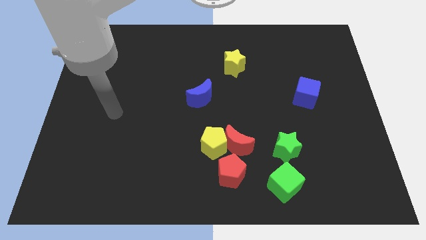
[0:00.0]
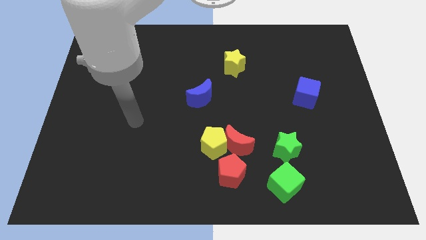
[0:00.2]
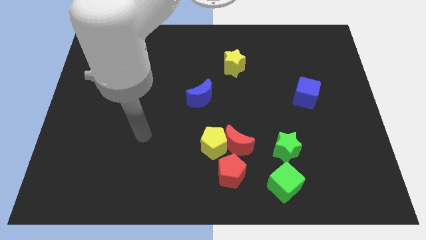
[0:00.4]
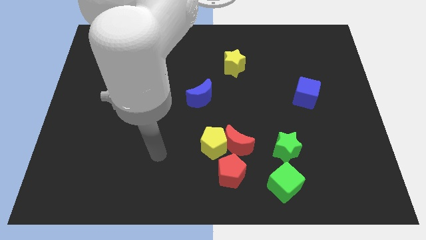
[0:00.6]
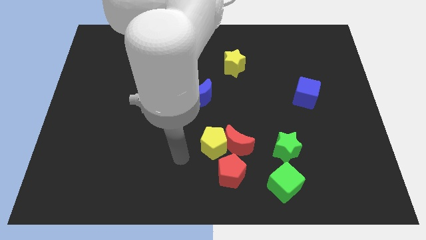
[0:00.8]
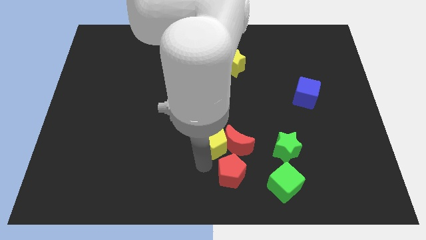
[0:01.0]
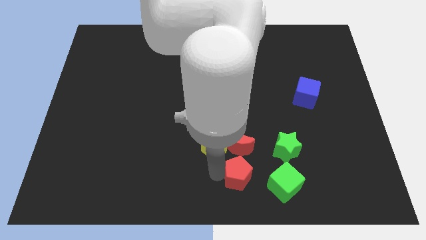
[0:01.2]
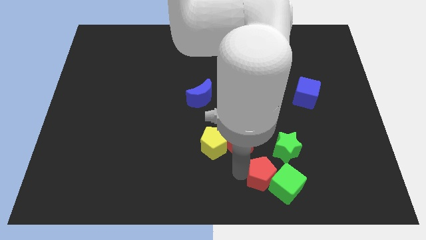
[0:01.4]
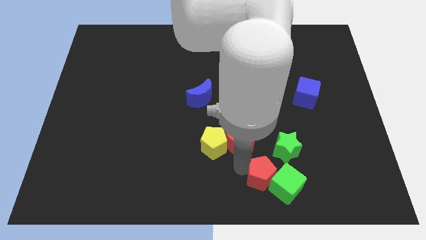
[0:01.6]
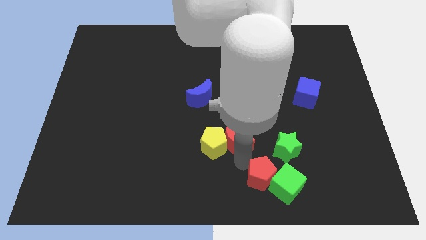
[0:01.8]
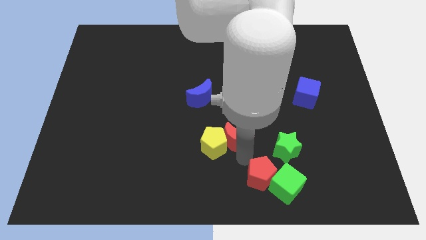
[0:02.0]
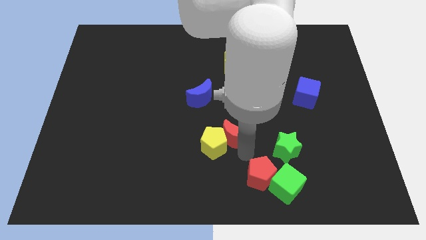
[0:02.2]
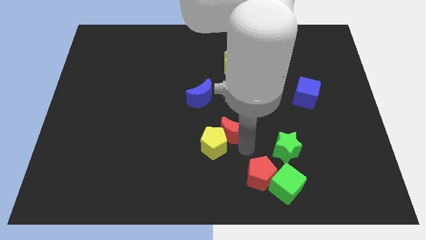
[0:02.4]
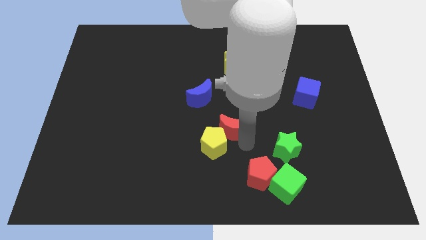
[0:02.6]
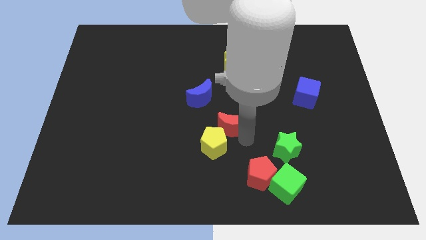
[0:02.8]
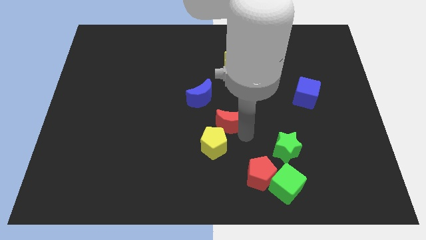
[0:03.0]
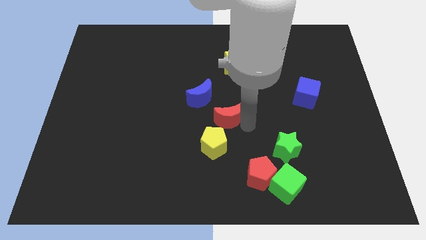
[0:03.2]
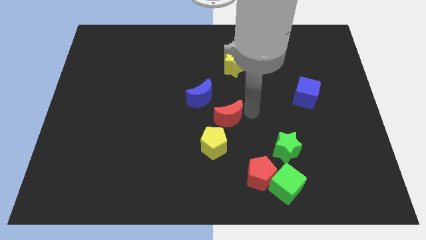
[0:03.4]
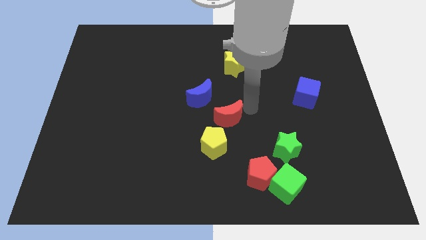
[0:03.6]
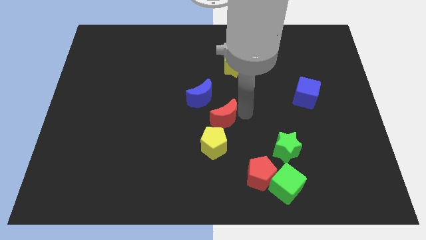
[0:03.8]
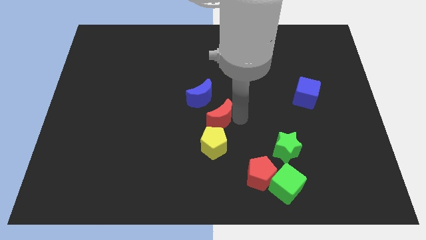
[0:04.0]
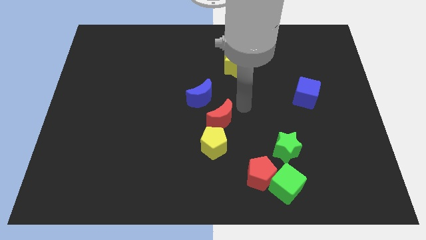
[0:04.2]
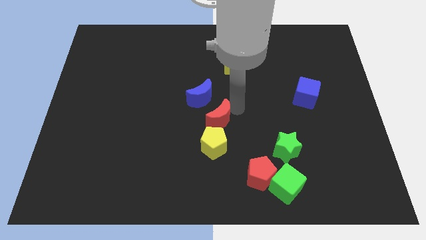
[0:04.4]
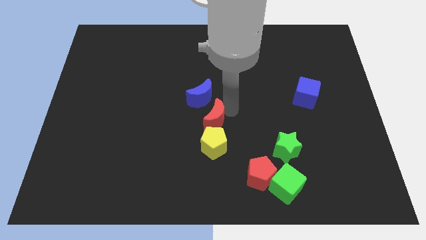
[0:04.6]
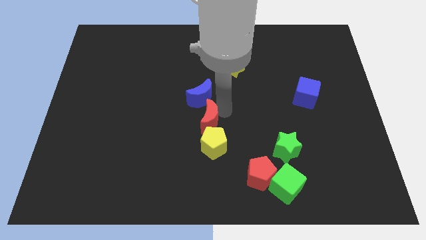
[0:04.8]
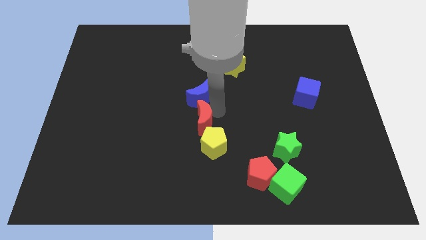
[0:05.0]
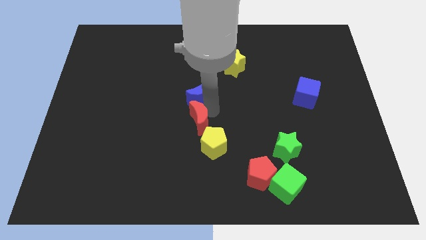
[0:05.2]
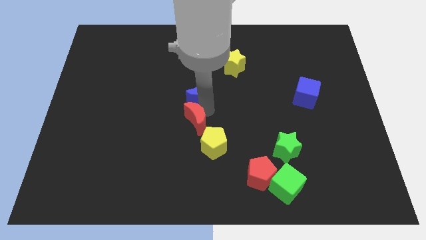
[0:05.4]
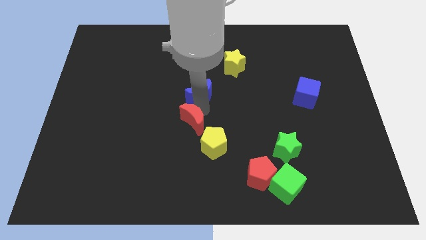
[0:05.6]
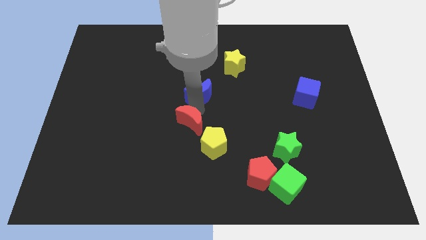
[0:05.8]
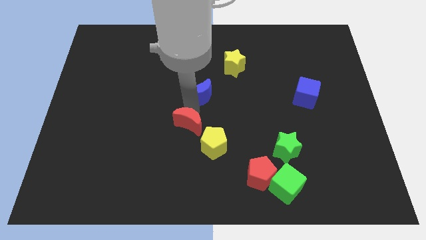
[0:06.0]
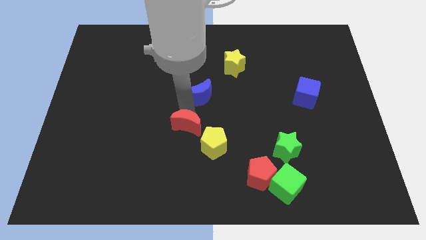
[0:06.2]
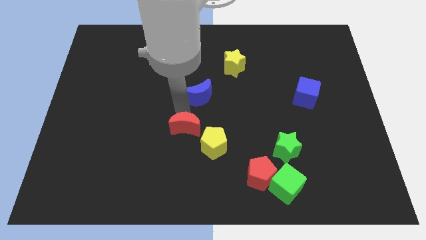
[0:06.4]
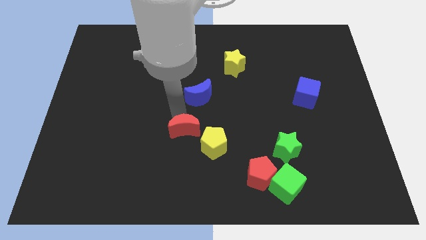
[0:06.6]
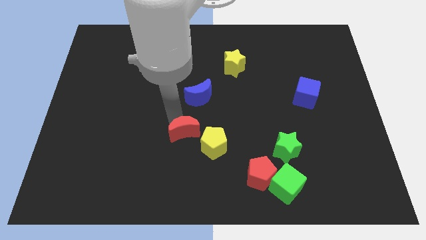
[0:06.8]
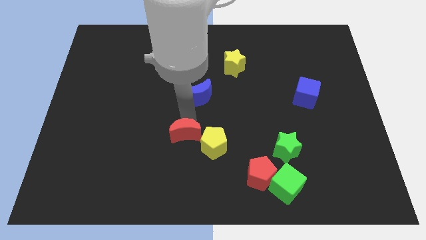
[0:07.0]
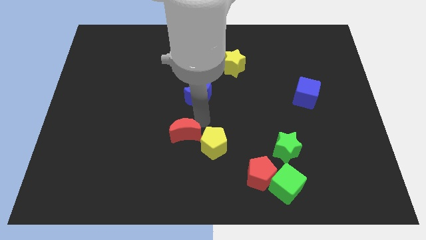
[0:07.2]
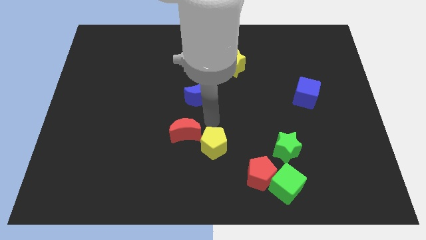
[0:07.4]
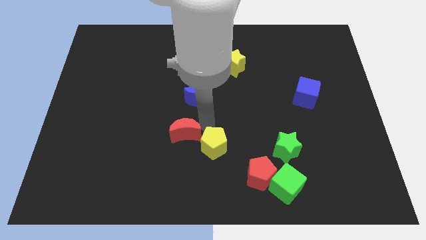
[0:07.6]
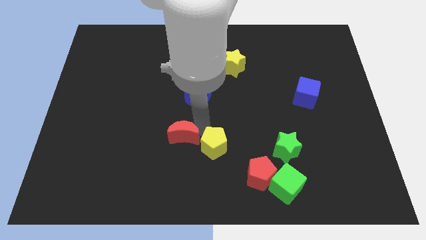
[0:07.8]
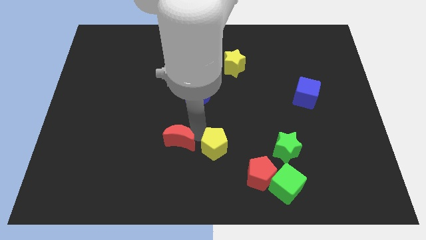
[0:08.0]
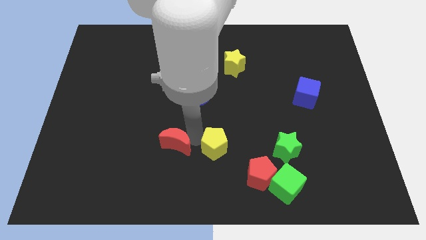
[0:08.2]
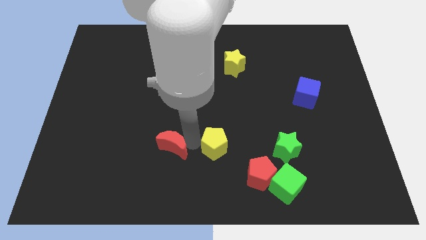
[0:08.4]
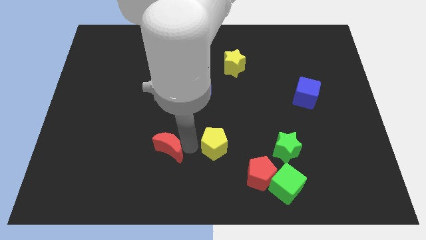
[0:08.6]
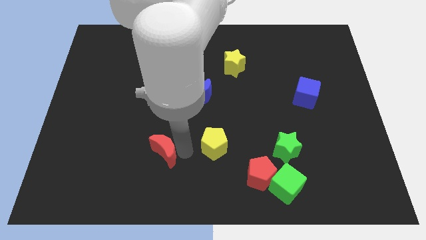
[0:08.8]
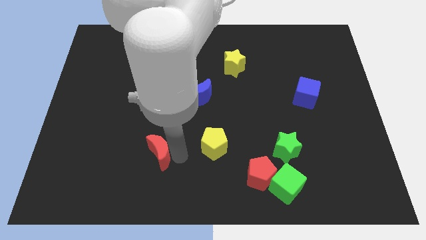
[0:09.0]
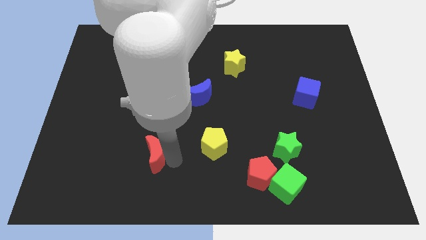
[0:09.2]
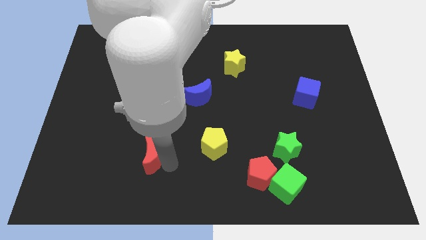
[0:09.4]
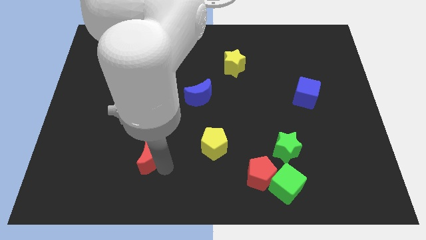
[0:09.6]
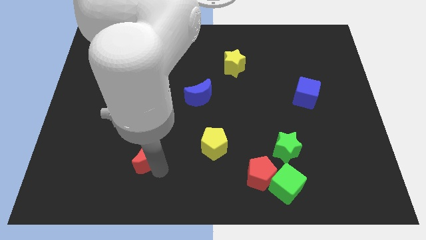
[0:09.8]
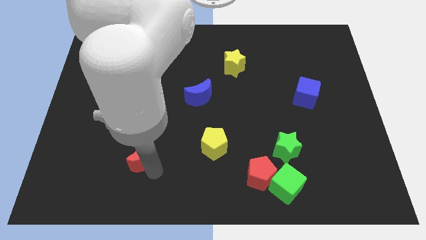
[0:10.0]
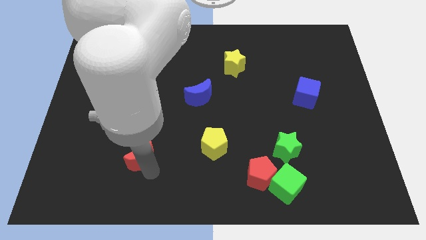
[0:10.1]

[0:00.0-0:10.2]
push the red moon to the left

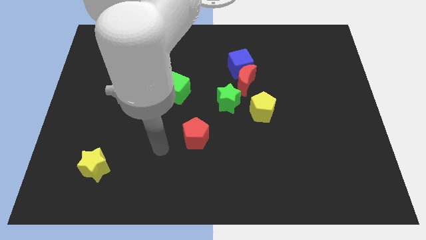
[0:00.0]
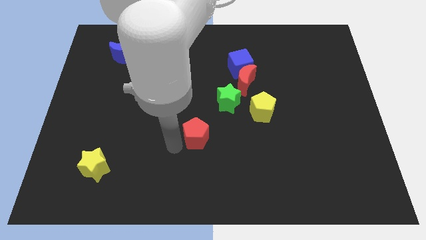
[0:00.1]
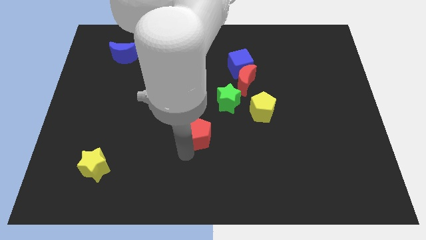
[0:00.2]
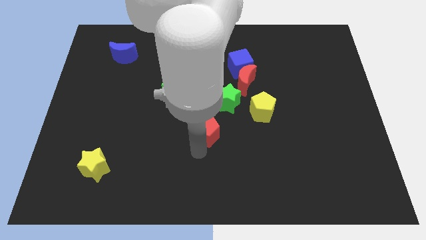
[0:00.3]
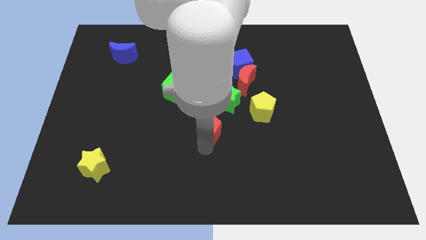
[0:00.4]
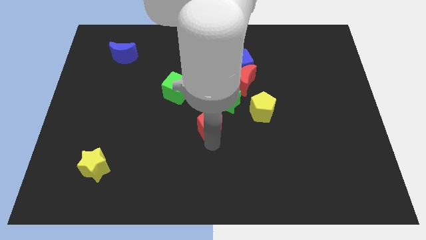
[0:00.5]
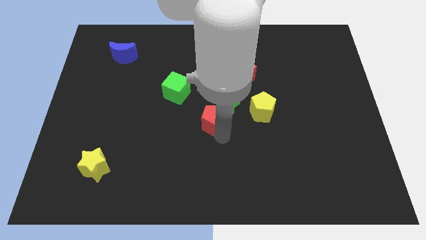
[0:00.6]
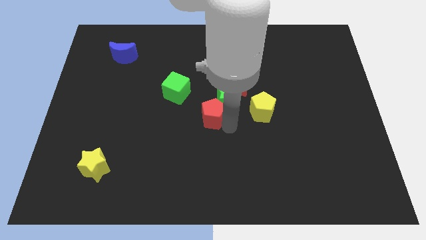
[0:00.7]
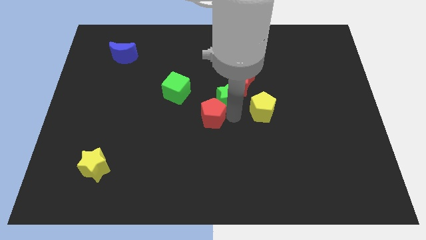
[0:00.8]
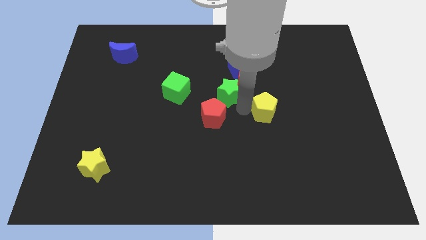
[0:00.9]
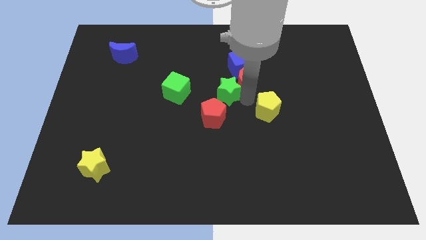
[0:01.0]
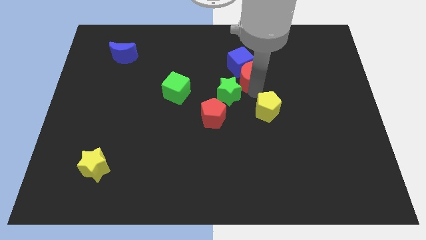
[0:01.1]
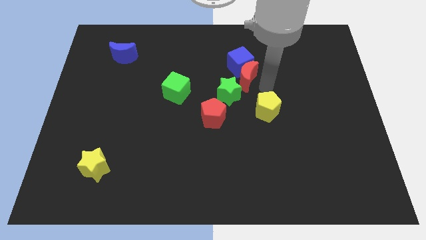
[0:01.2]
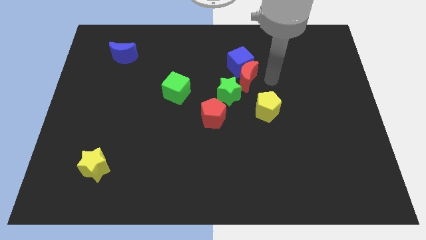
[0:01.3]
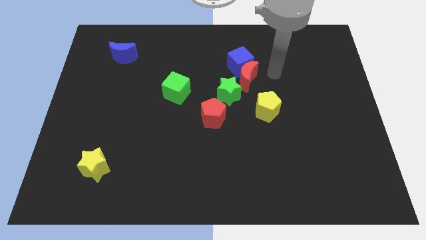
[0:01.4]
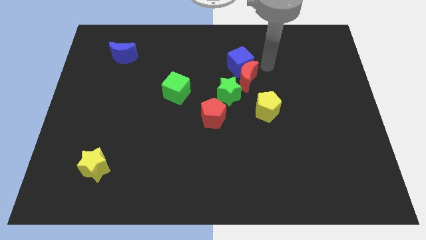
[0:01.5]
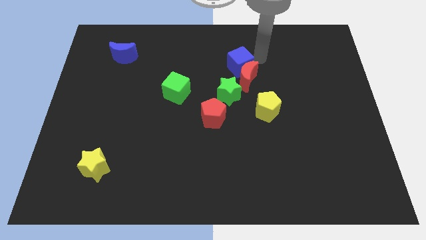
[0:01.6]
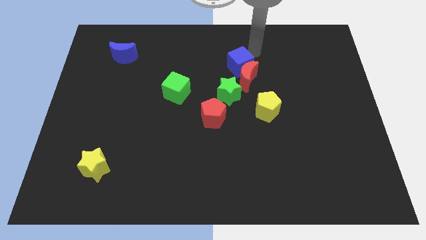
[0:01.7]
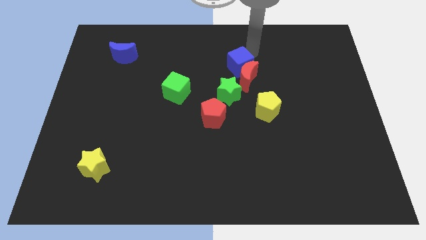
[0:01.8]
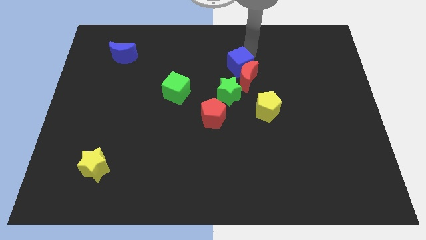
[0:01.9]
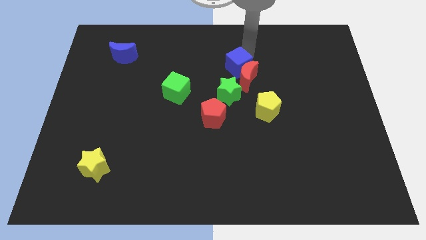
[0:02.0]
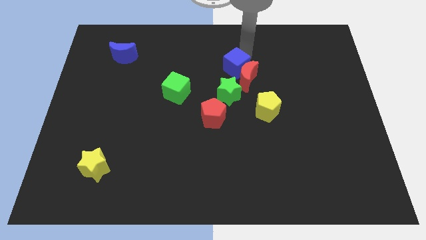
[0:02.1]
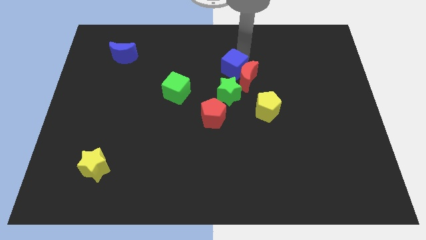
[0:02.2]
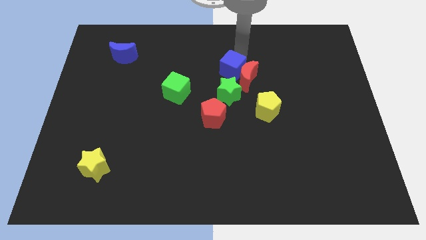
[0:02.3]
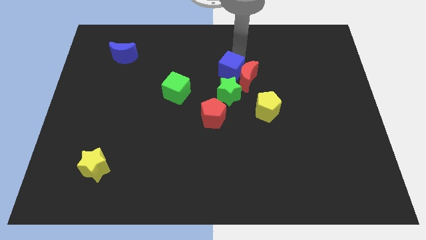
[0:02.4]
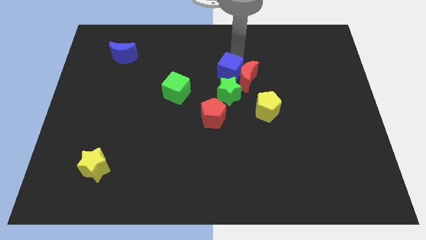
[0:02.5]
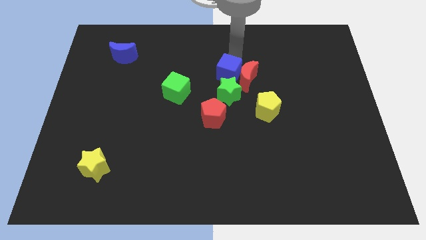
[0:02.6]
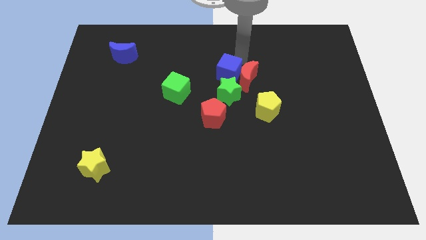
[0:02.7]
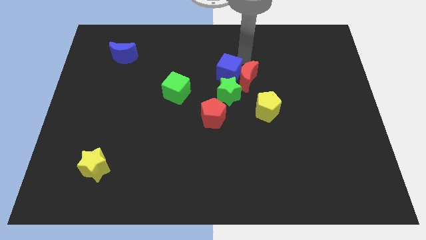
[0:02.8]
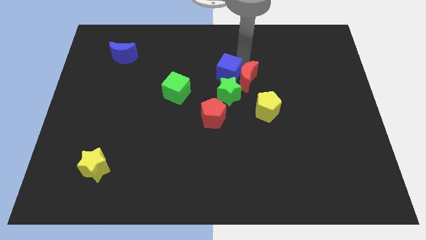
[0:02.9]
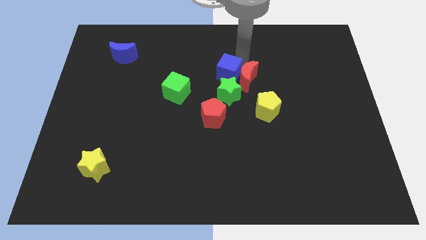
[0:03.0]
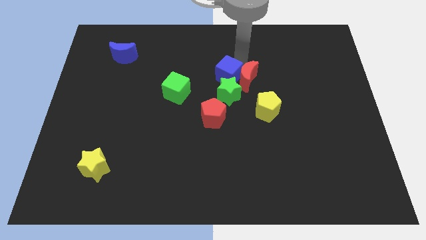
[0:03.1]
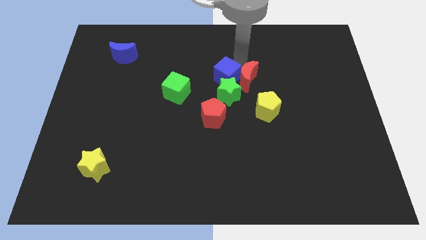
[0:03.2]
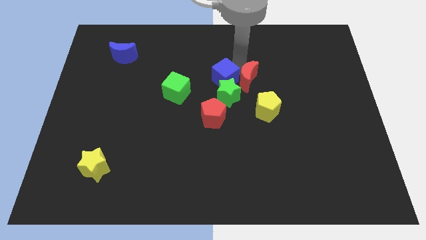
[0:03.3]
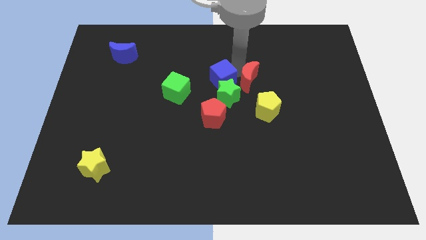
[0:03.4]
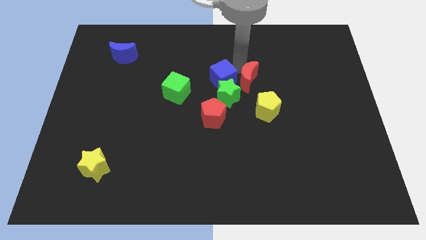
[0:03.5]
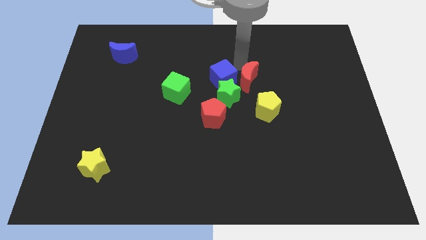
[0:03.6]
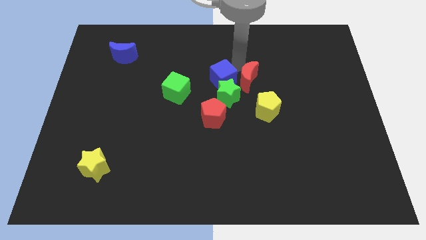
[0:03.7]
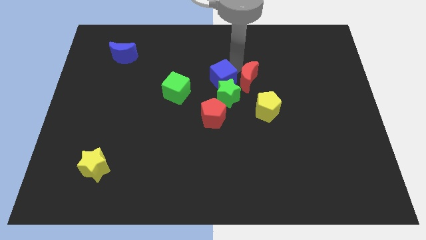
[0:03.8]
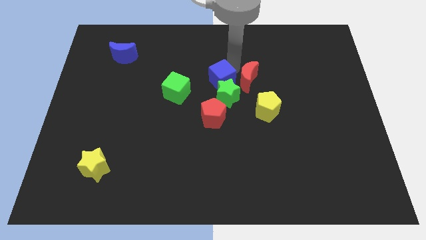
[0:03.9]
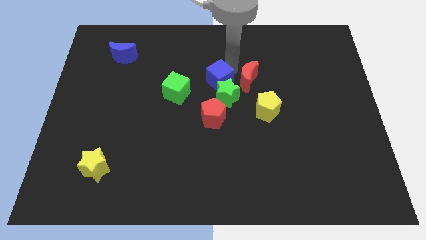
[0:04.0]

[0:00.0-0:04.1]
slide the blue cube down and to the left somewhat
